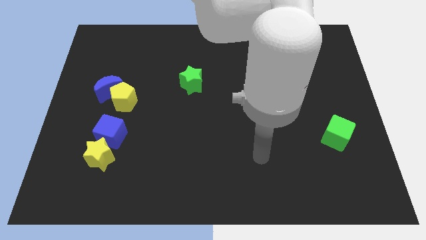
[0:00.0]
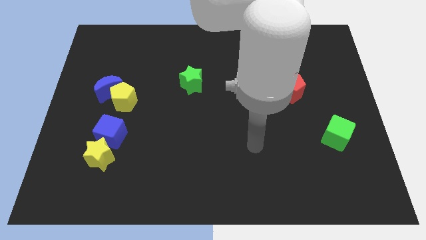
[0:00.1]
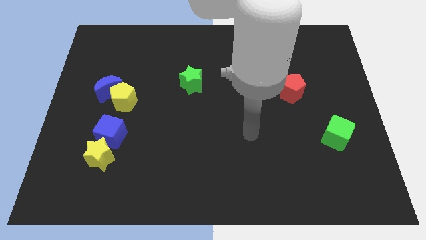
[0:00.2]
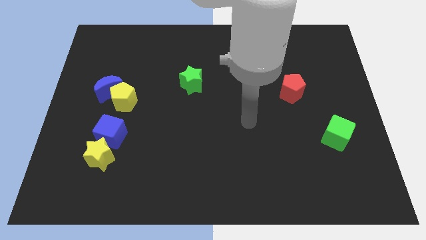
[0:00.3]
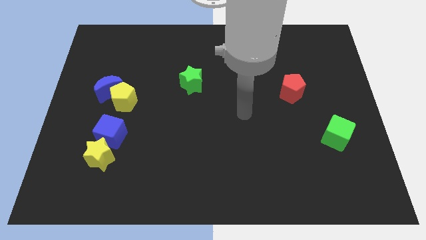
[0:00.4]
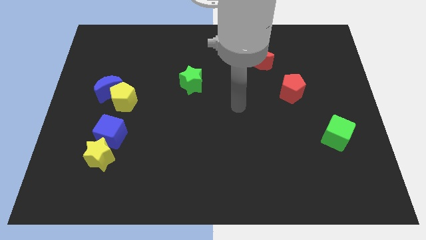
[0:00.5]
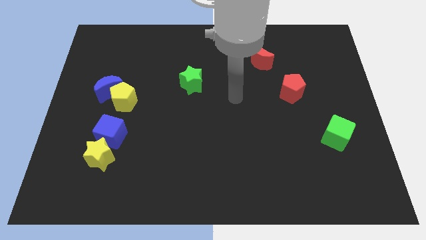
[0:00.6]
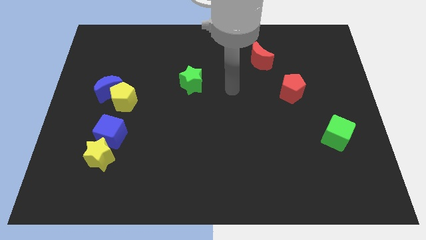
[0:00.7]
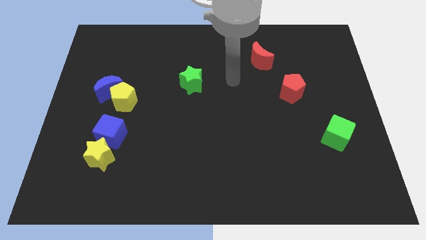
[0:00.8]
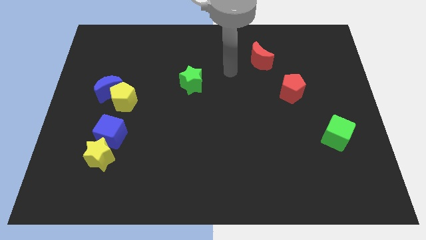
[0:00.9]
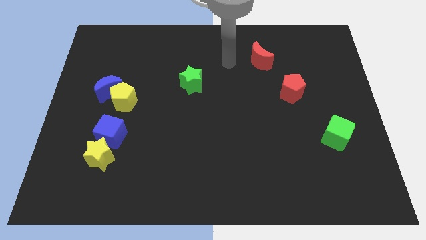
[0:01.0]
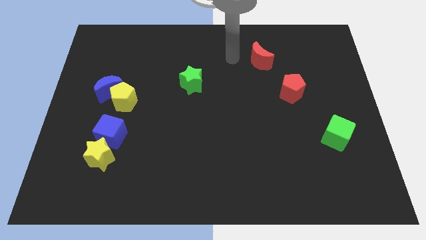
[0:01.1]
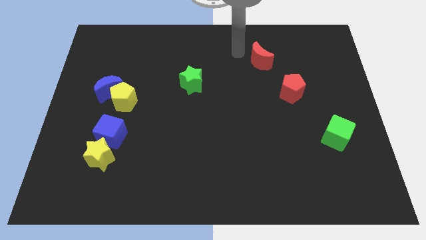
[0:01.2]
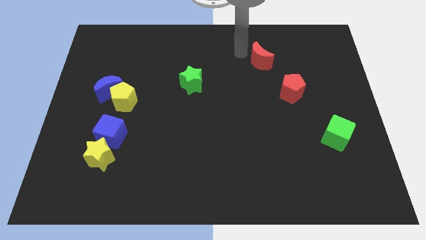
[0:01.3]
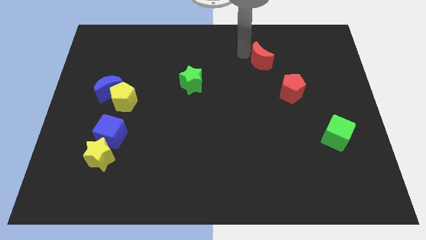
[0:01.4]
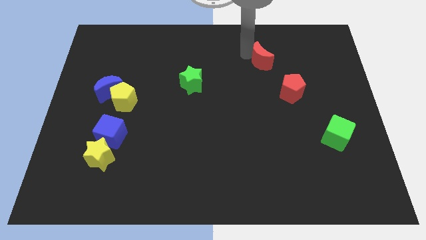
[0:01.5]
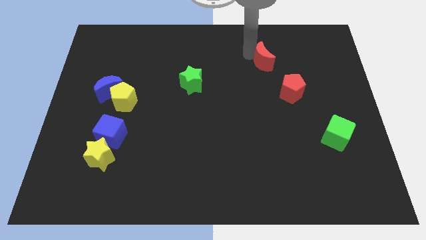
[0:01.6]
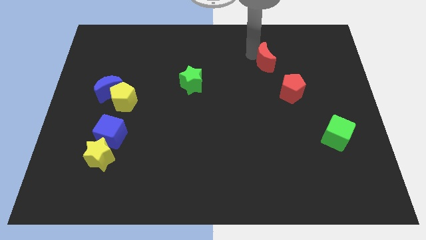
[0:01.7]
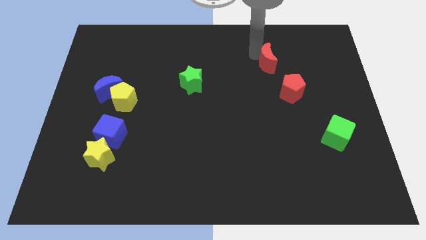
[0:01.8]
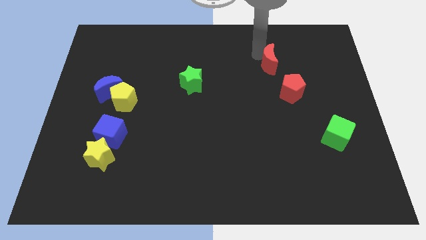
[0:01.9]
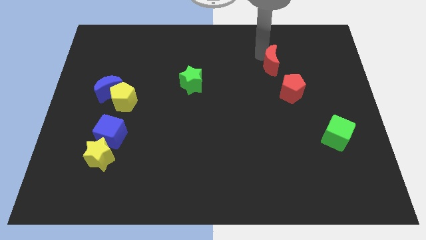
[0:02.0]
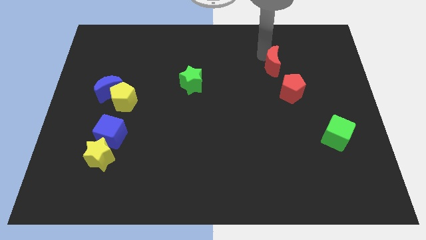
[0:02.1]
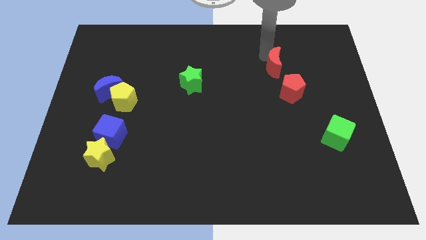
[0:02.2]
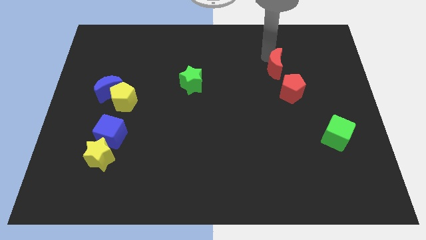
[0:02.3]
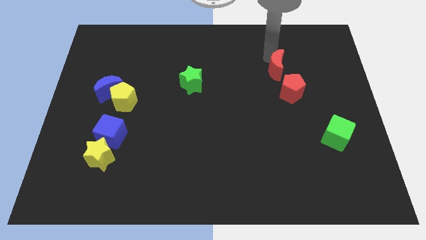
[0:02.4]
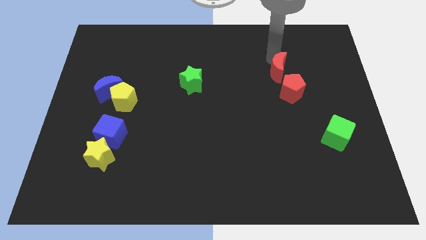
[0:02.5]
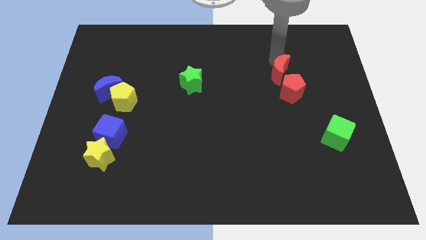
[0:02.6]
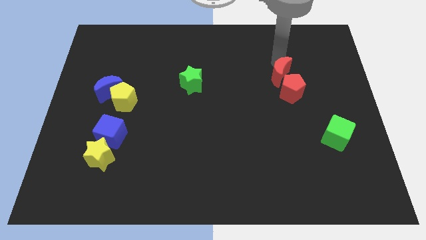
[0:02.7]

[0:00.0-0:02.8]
slightly push the red moon down and right diagonally

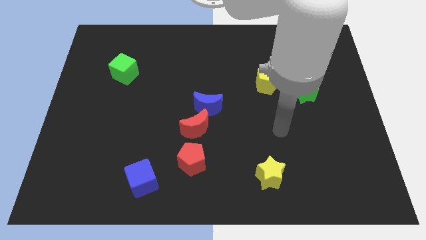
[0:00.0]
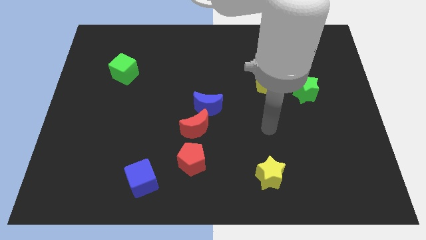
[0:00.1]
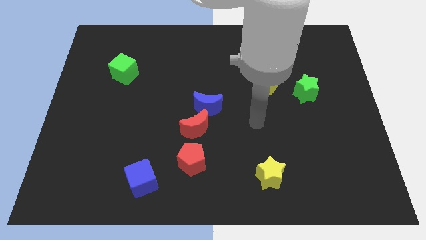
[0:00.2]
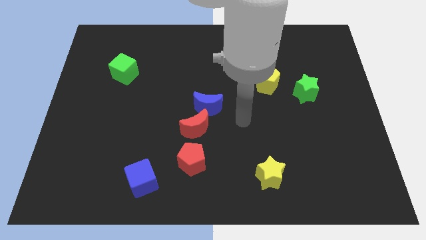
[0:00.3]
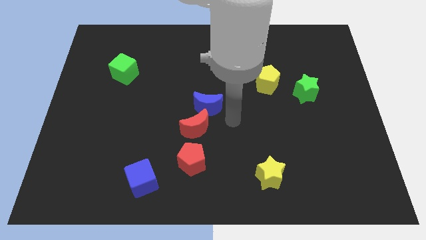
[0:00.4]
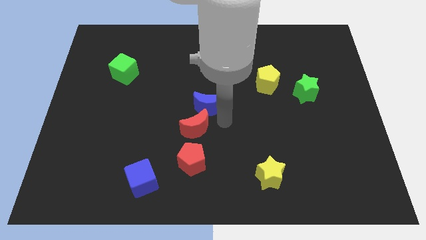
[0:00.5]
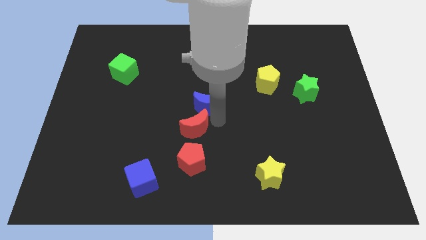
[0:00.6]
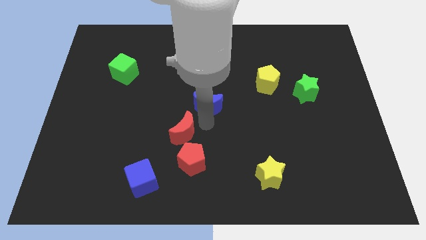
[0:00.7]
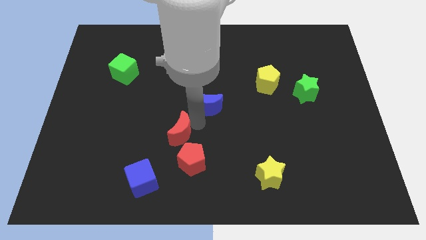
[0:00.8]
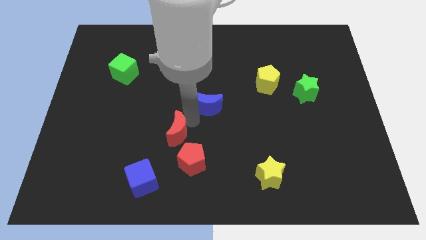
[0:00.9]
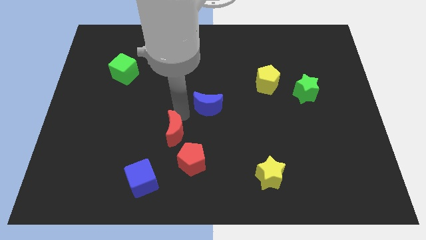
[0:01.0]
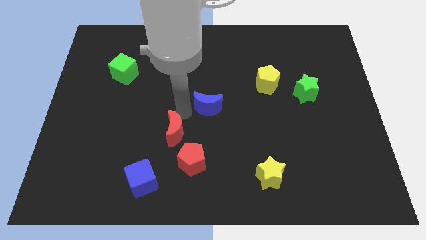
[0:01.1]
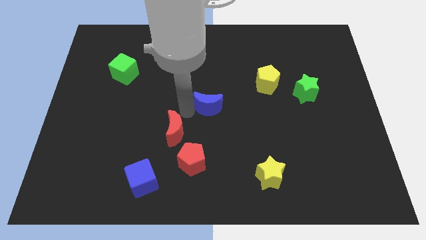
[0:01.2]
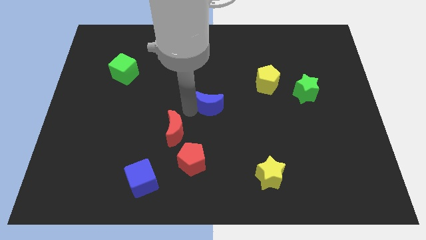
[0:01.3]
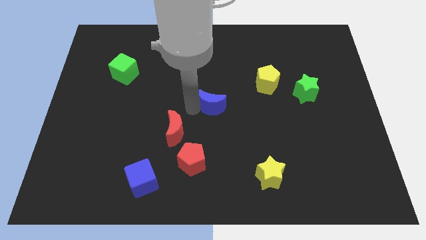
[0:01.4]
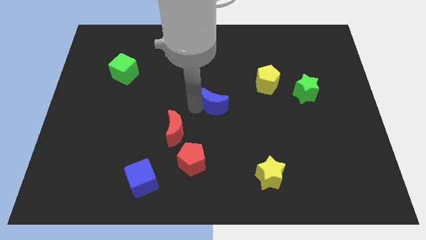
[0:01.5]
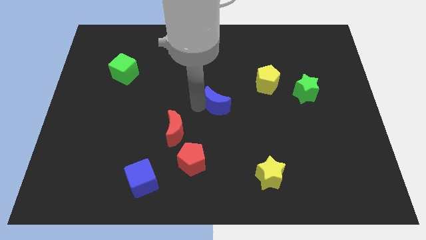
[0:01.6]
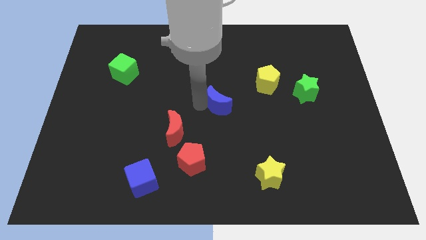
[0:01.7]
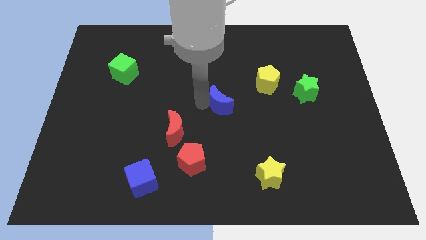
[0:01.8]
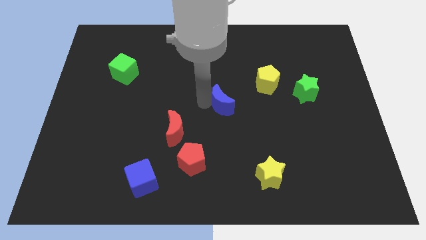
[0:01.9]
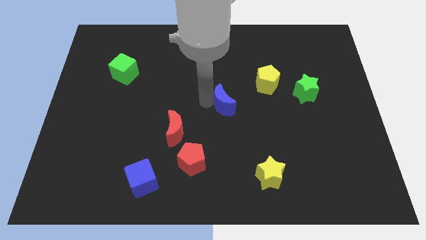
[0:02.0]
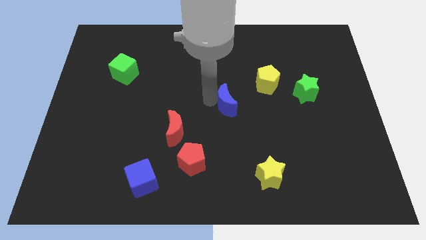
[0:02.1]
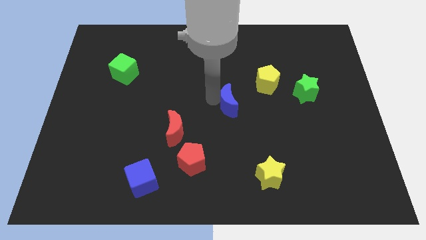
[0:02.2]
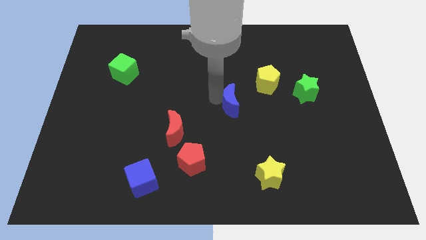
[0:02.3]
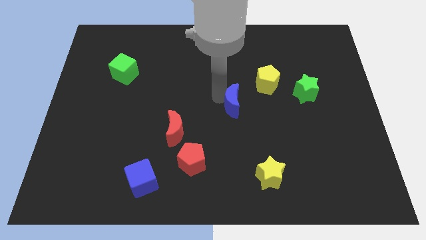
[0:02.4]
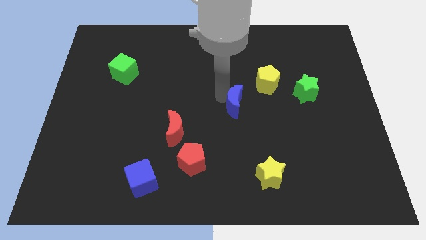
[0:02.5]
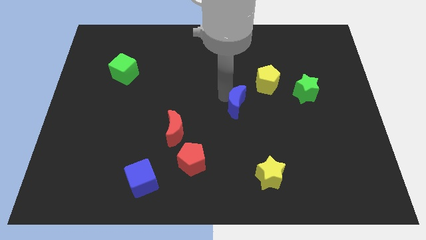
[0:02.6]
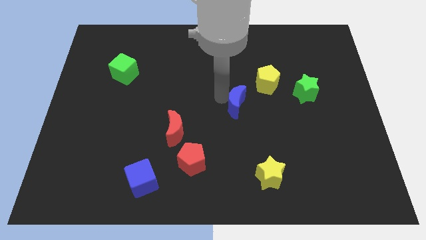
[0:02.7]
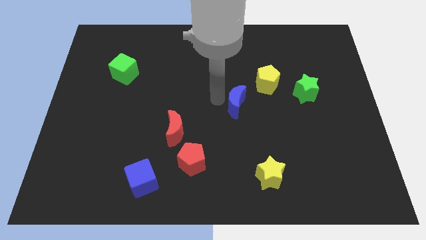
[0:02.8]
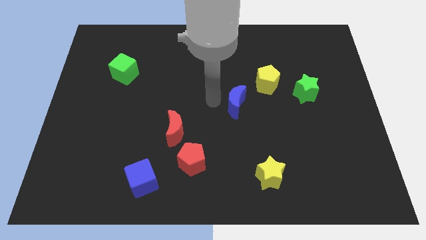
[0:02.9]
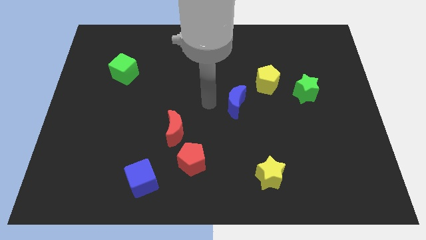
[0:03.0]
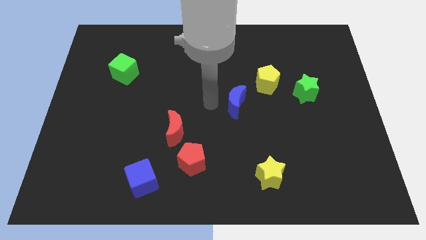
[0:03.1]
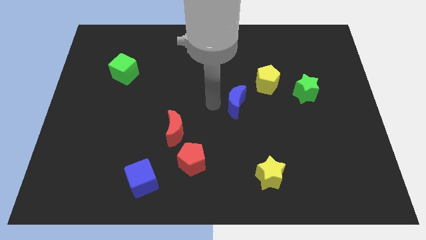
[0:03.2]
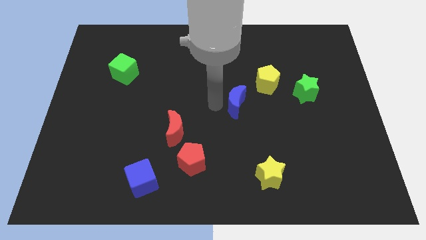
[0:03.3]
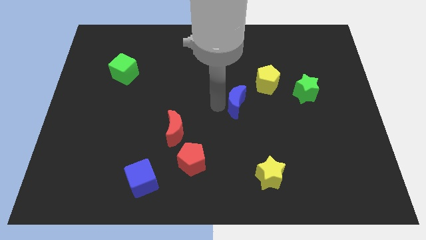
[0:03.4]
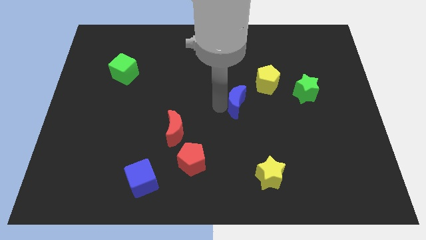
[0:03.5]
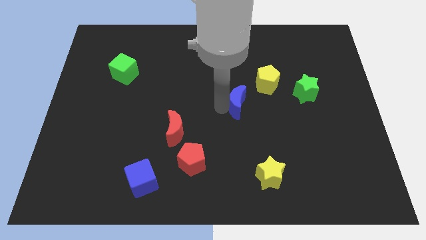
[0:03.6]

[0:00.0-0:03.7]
push the blue moon right a little bit

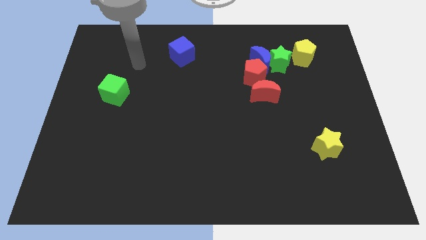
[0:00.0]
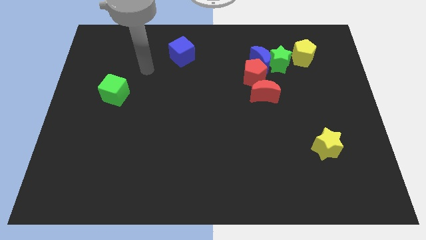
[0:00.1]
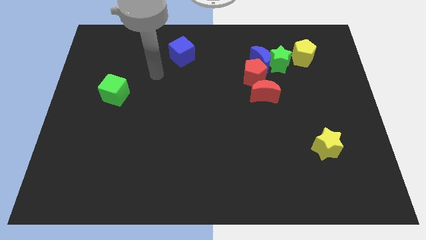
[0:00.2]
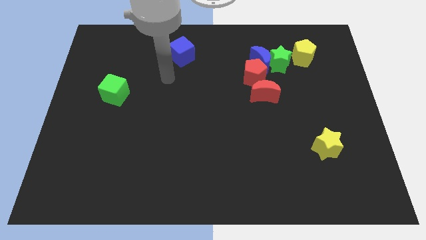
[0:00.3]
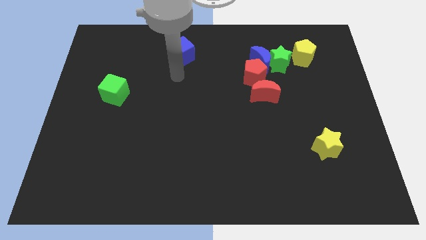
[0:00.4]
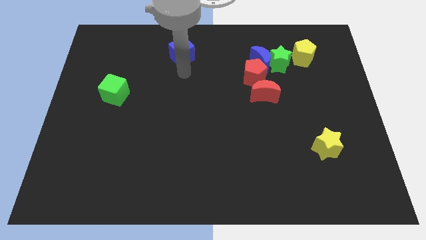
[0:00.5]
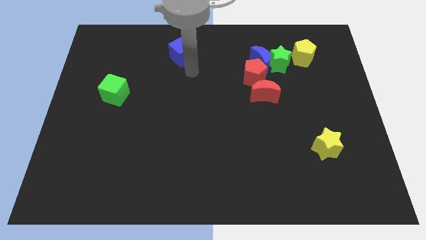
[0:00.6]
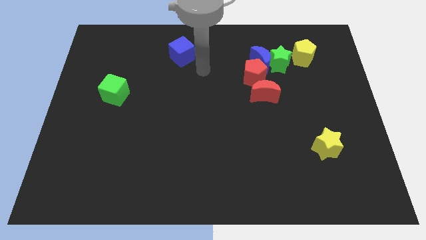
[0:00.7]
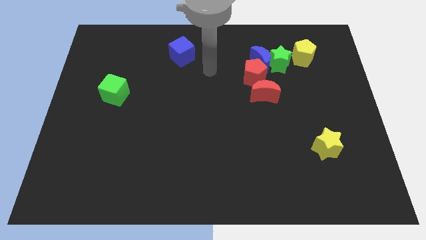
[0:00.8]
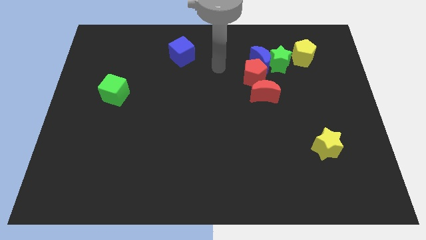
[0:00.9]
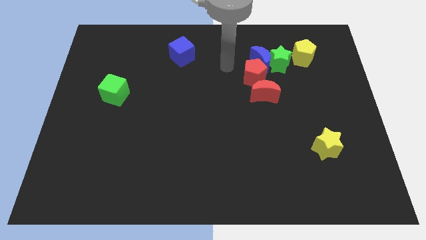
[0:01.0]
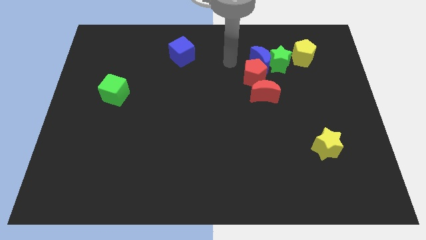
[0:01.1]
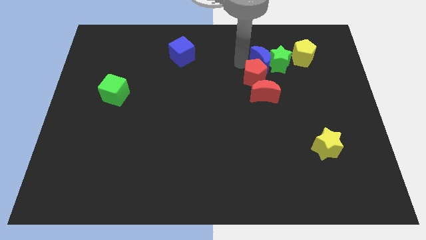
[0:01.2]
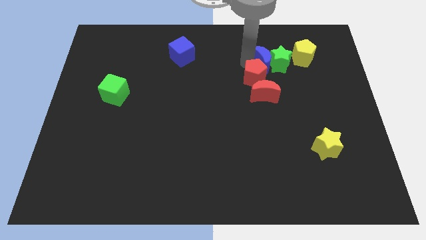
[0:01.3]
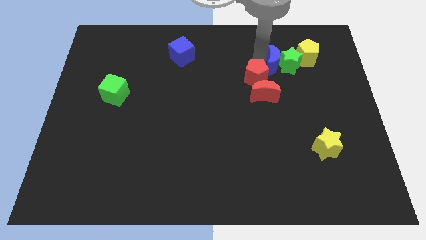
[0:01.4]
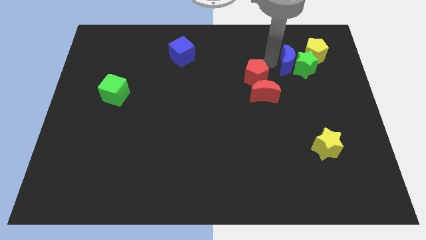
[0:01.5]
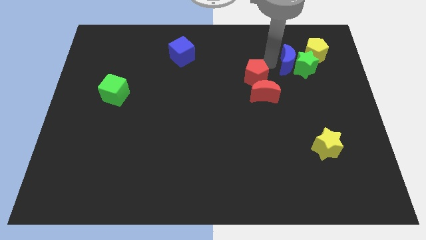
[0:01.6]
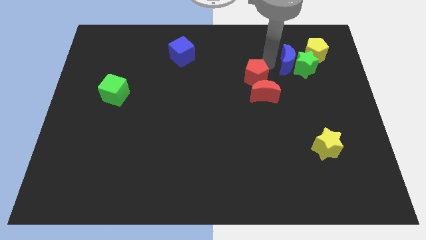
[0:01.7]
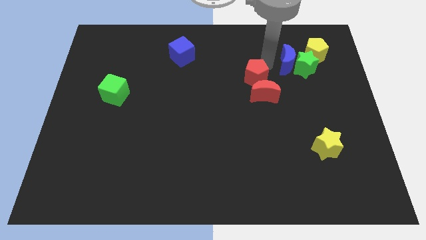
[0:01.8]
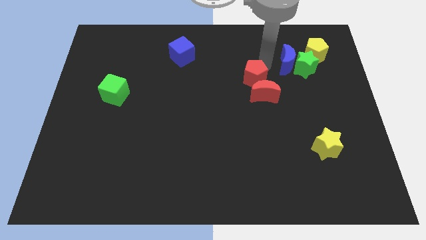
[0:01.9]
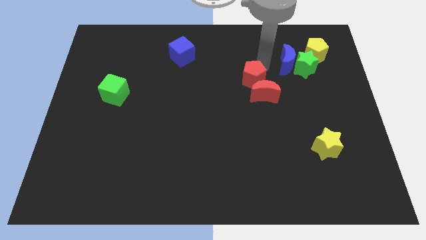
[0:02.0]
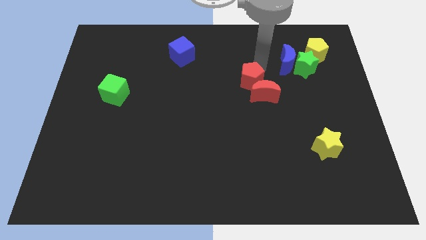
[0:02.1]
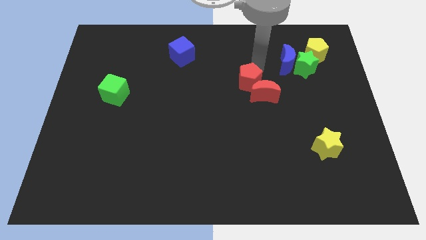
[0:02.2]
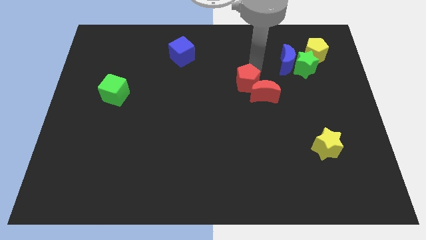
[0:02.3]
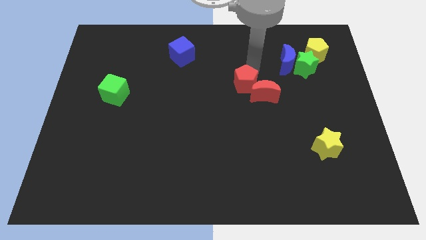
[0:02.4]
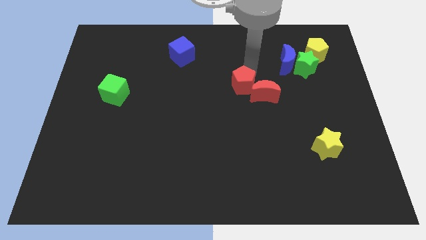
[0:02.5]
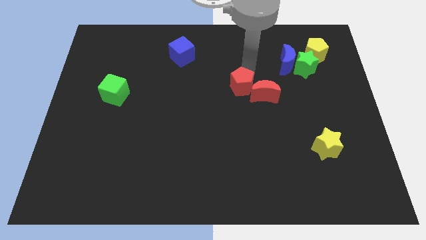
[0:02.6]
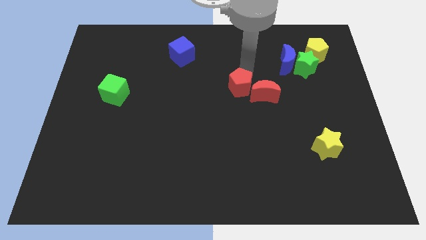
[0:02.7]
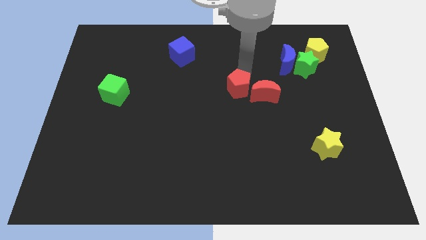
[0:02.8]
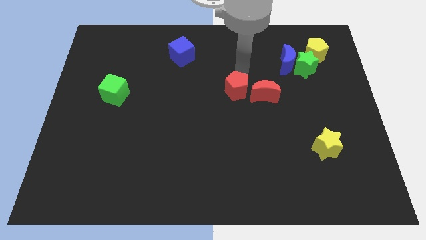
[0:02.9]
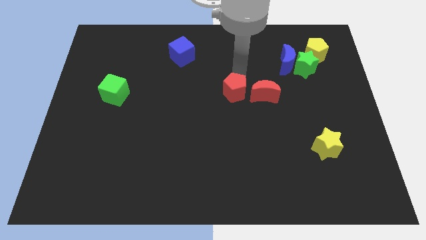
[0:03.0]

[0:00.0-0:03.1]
slightly slide the red pentagon diagonally downwards and left
